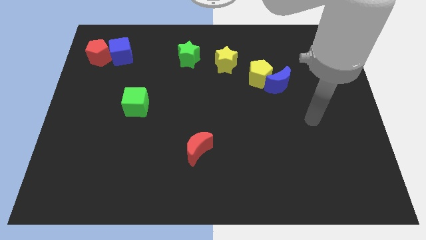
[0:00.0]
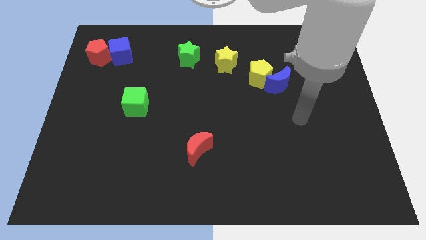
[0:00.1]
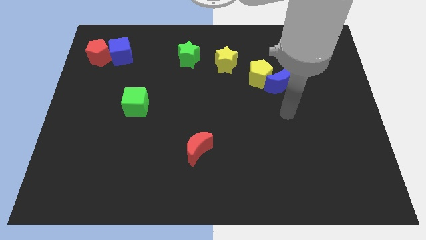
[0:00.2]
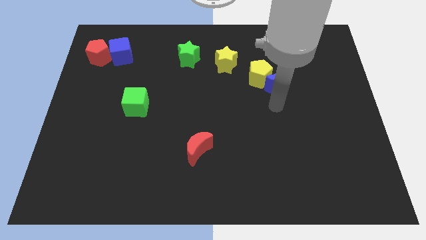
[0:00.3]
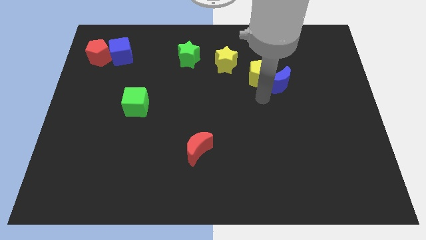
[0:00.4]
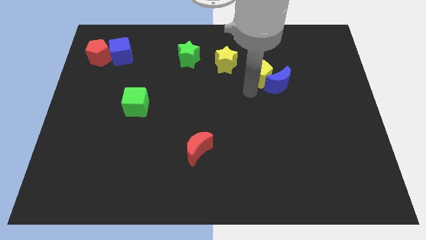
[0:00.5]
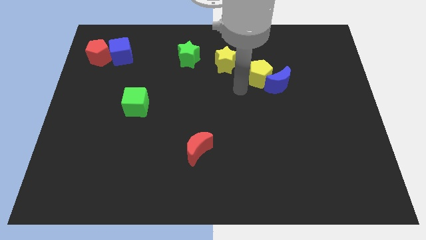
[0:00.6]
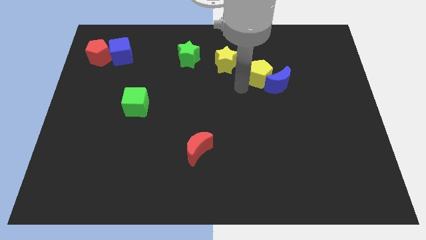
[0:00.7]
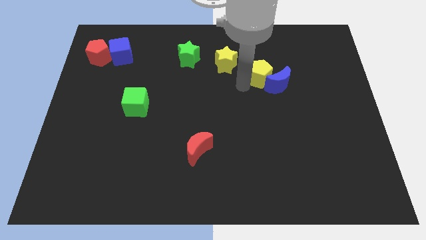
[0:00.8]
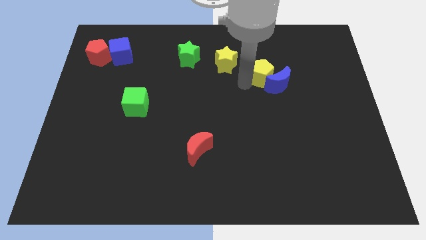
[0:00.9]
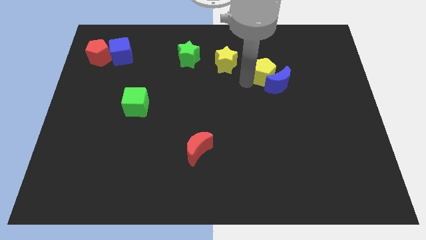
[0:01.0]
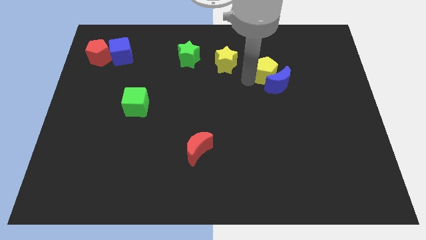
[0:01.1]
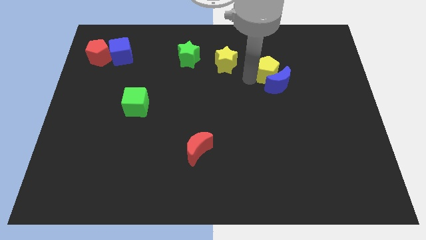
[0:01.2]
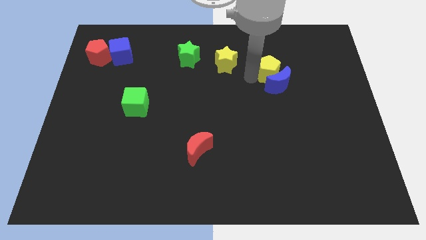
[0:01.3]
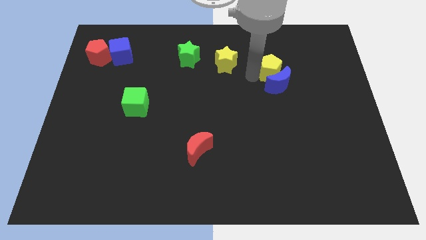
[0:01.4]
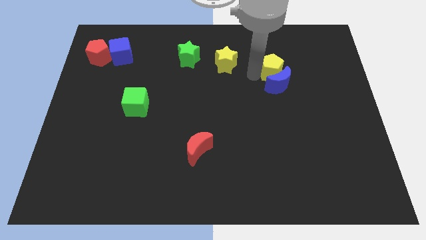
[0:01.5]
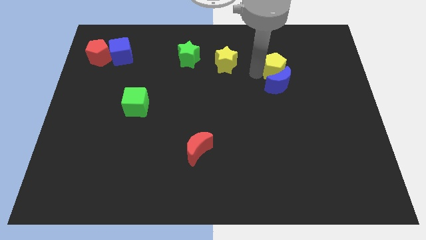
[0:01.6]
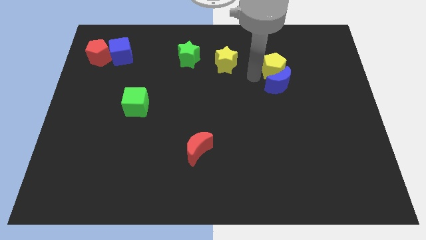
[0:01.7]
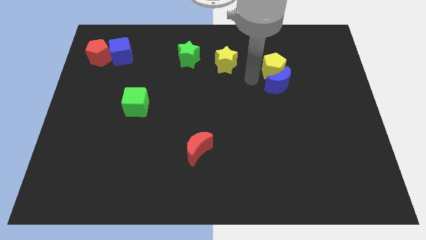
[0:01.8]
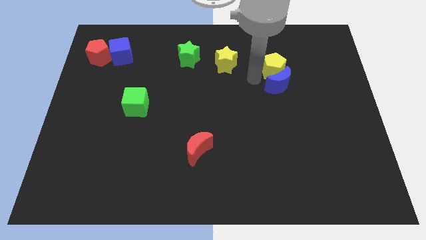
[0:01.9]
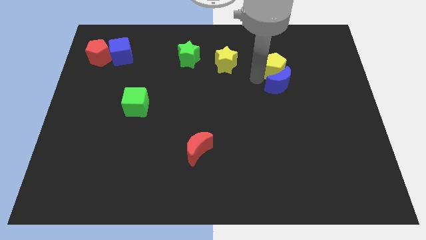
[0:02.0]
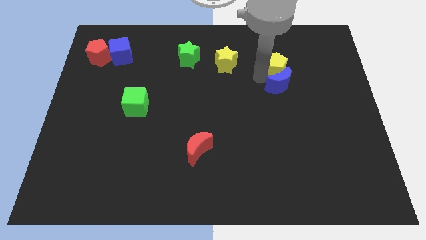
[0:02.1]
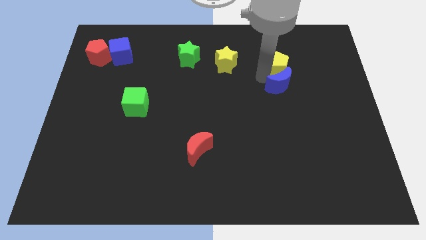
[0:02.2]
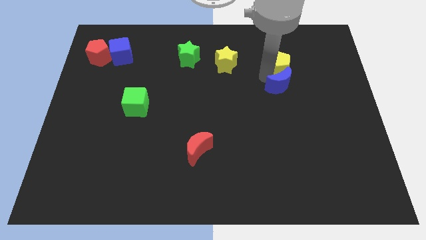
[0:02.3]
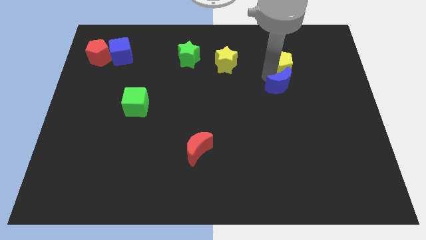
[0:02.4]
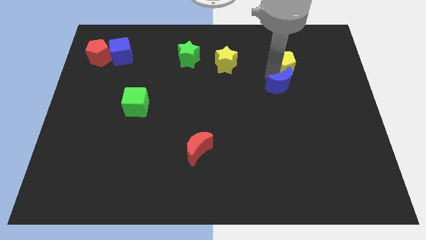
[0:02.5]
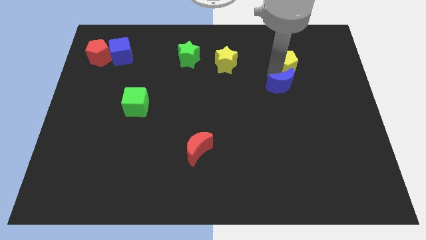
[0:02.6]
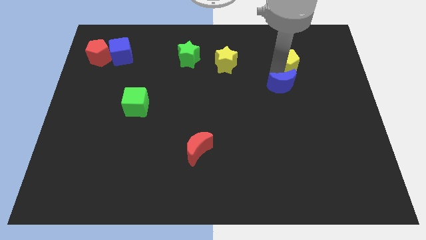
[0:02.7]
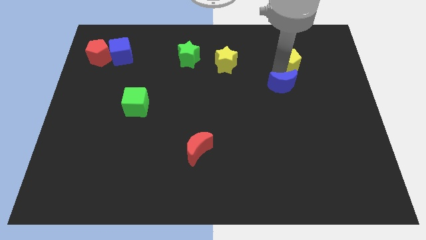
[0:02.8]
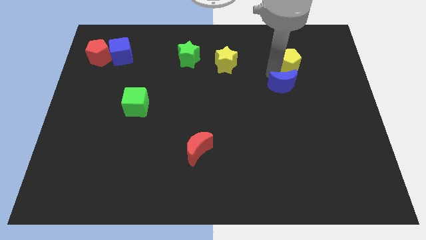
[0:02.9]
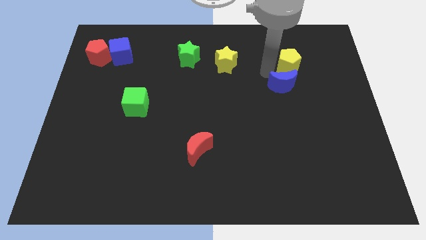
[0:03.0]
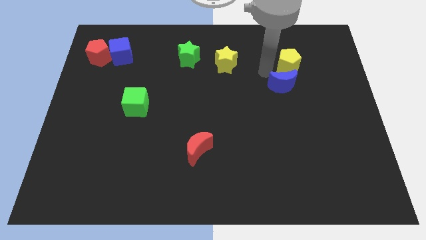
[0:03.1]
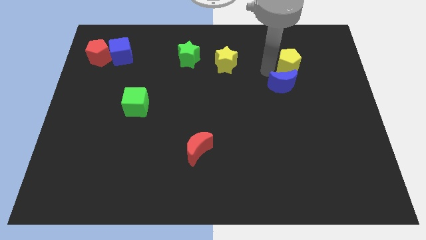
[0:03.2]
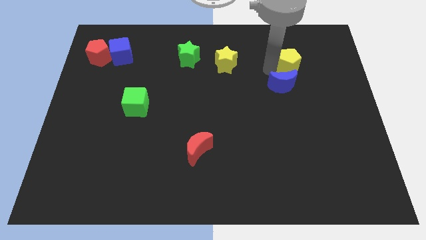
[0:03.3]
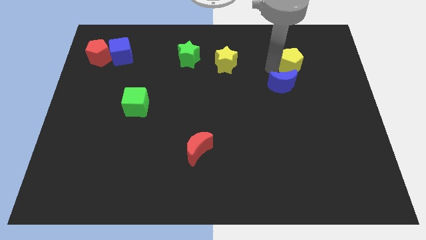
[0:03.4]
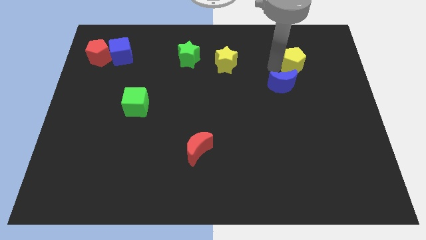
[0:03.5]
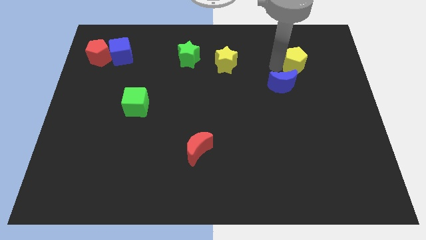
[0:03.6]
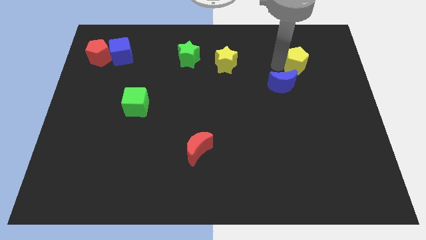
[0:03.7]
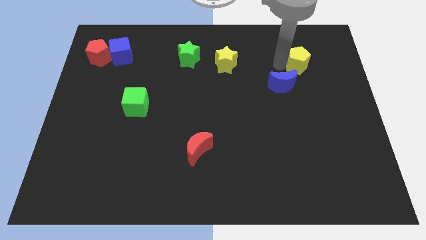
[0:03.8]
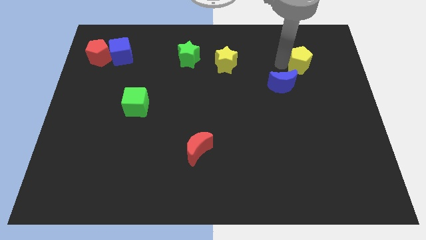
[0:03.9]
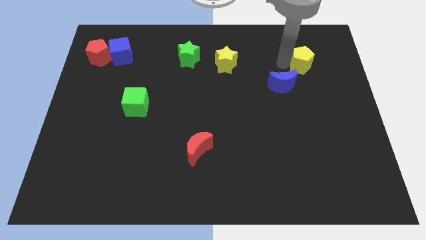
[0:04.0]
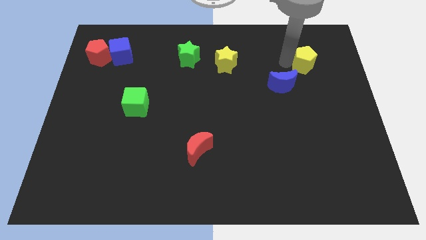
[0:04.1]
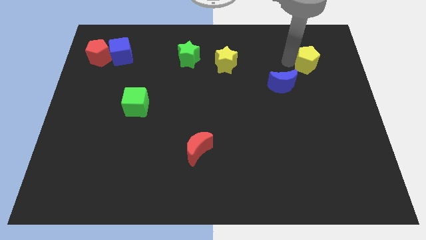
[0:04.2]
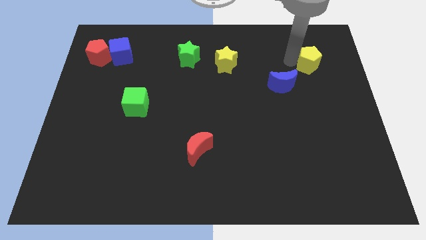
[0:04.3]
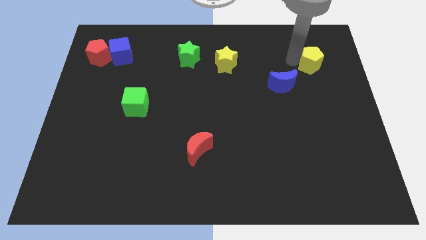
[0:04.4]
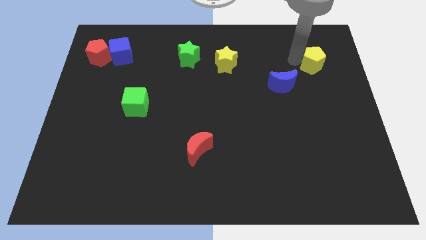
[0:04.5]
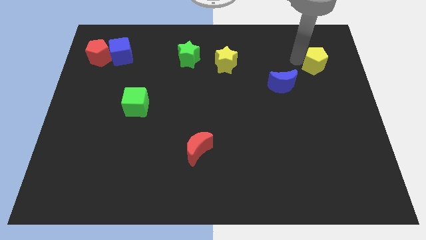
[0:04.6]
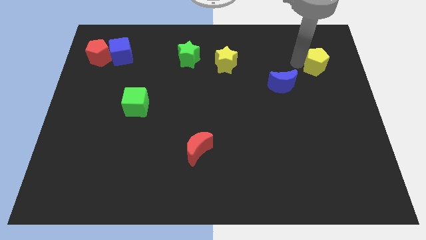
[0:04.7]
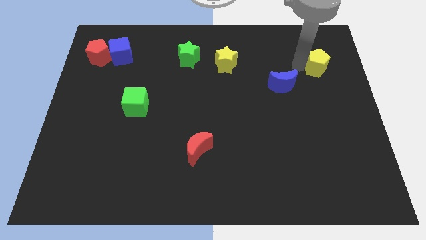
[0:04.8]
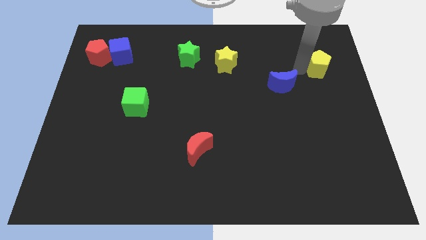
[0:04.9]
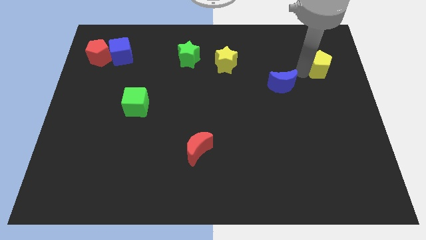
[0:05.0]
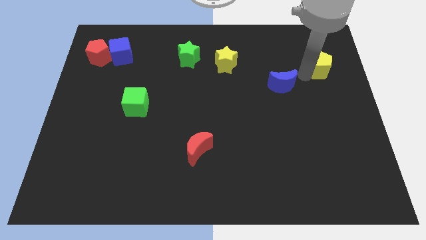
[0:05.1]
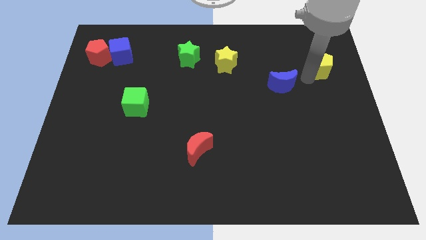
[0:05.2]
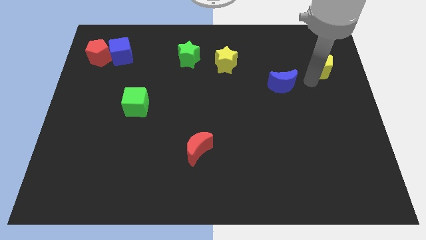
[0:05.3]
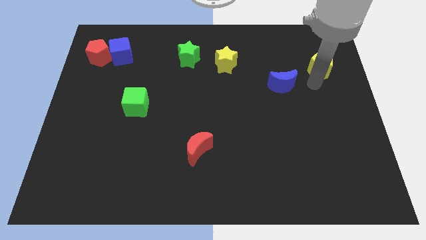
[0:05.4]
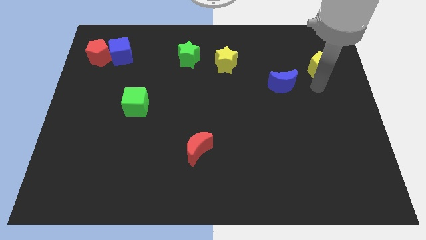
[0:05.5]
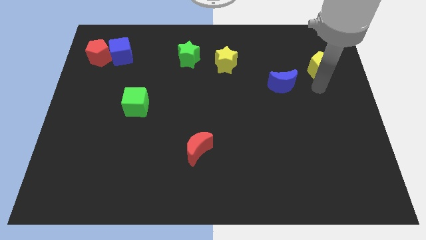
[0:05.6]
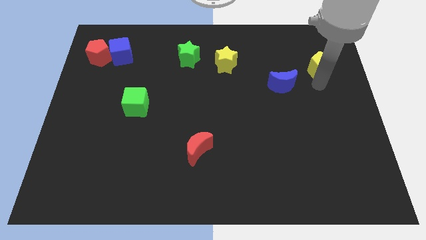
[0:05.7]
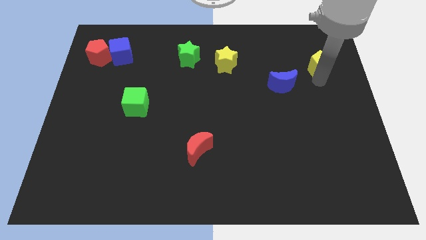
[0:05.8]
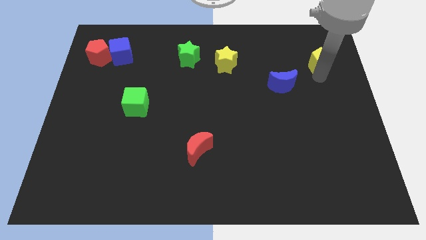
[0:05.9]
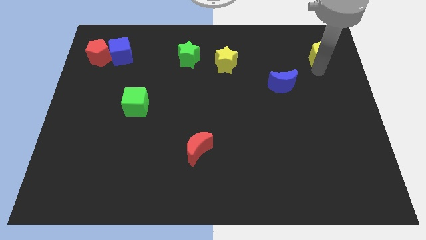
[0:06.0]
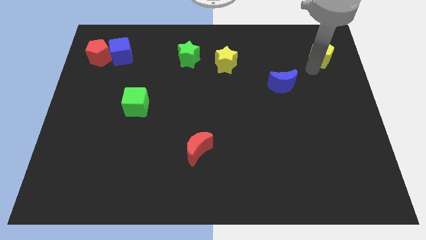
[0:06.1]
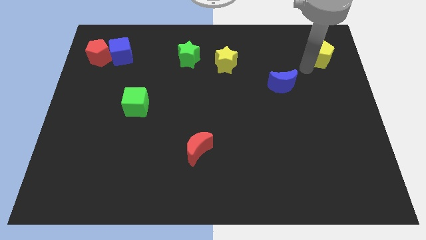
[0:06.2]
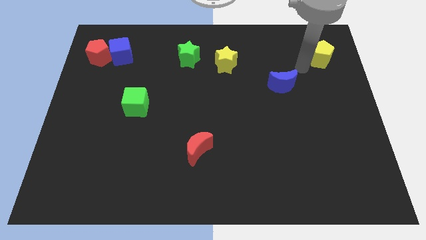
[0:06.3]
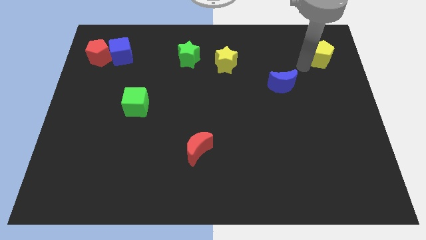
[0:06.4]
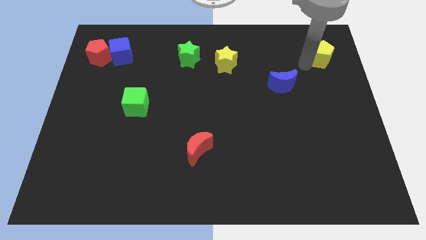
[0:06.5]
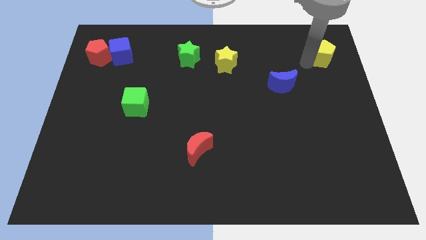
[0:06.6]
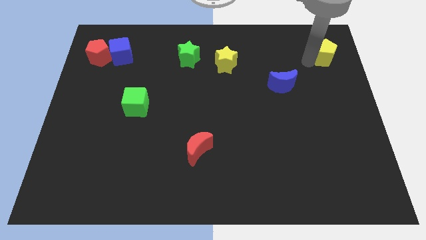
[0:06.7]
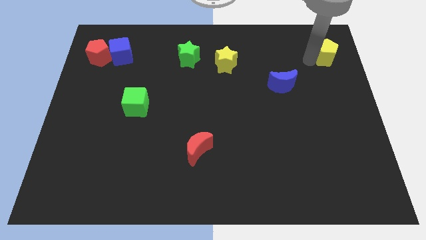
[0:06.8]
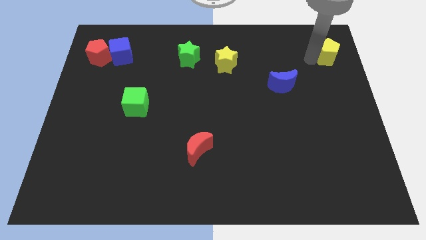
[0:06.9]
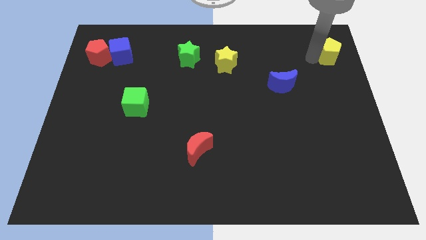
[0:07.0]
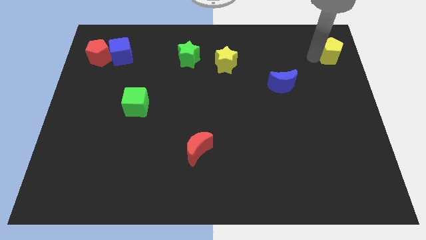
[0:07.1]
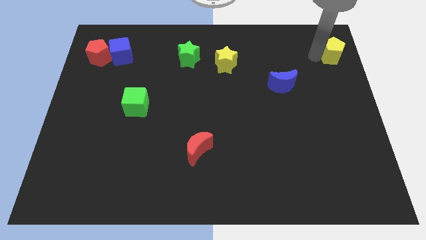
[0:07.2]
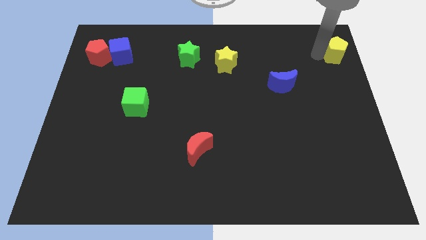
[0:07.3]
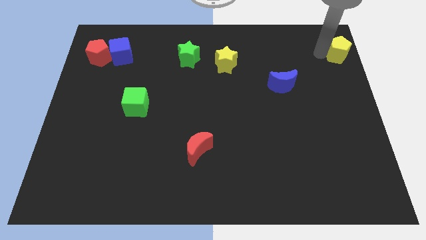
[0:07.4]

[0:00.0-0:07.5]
slide the yellow pentagon to the top right of the board
